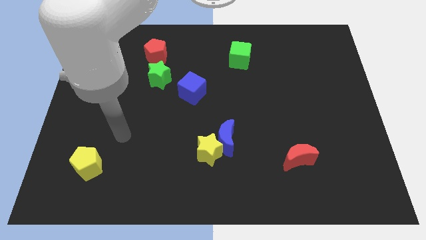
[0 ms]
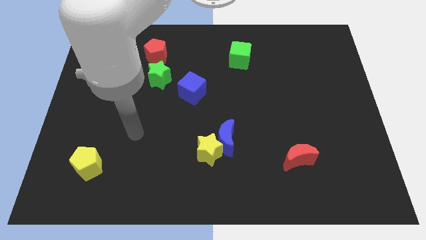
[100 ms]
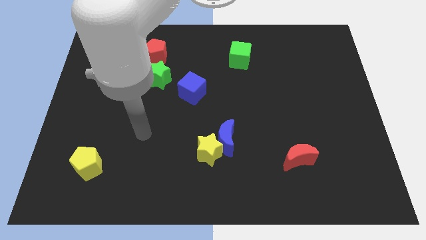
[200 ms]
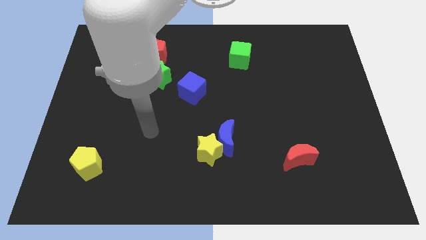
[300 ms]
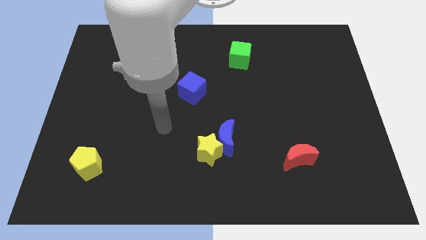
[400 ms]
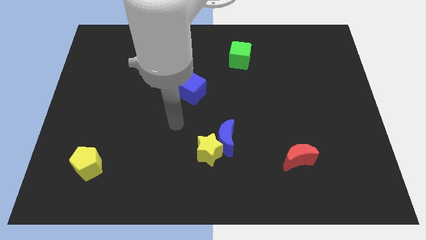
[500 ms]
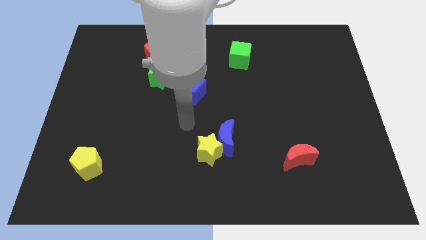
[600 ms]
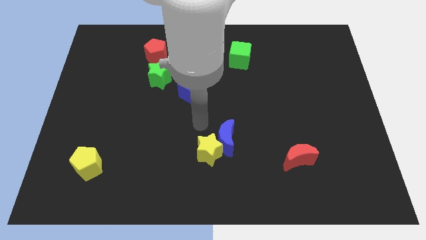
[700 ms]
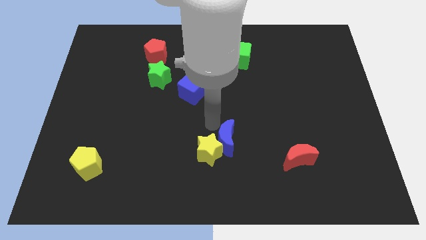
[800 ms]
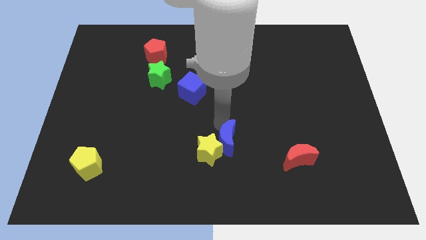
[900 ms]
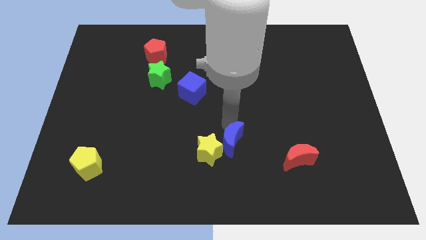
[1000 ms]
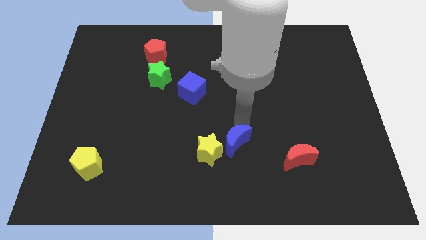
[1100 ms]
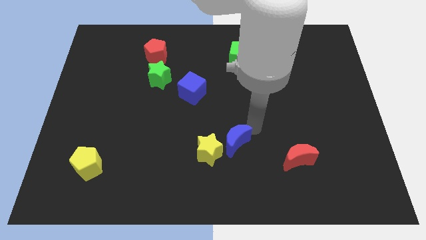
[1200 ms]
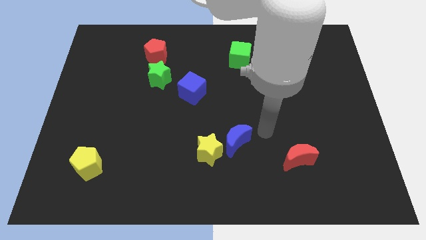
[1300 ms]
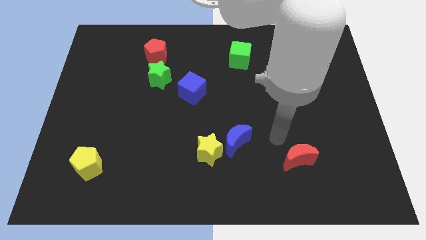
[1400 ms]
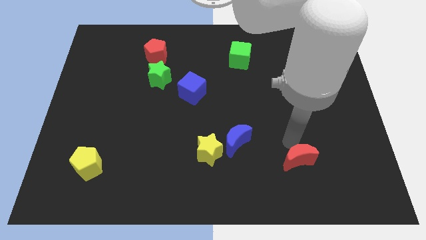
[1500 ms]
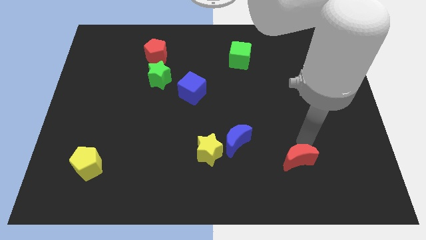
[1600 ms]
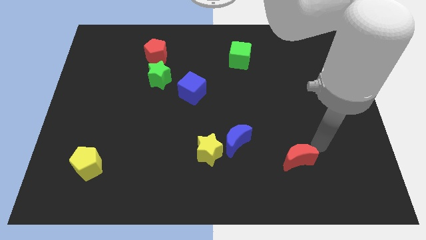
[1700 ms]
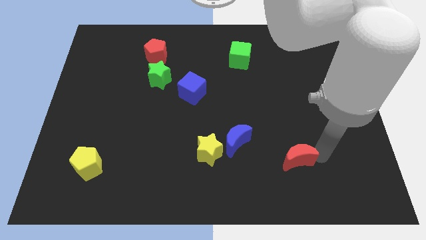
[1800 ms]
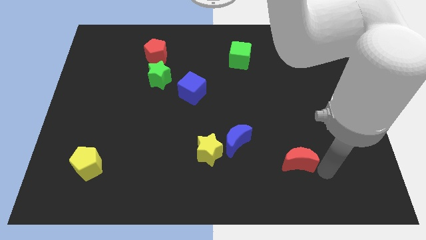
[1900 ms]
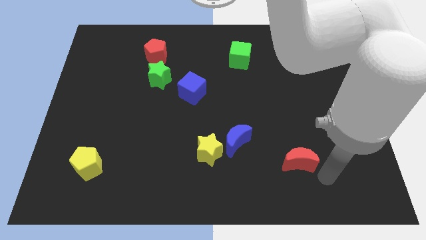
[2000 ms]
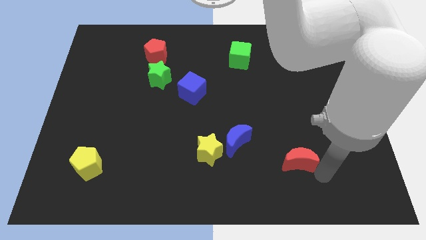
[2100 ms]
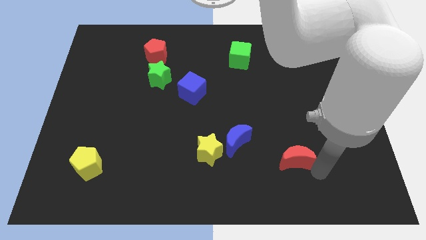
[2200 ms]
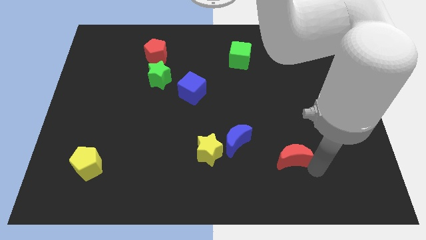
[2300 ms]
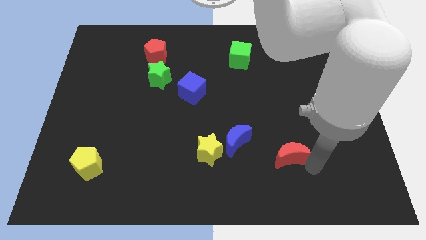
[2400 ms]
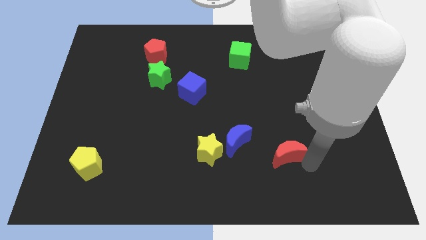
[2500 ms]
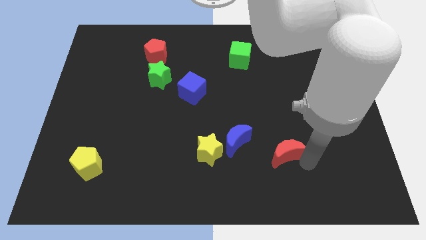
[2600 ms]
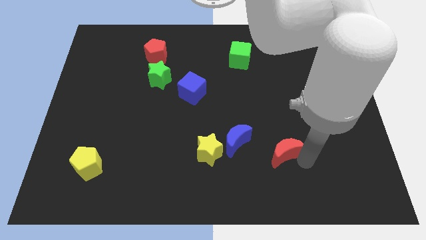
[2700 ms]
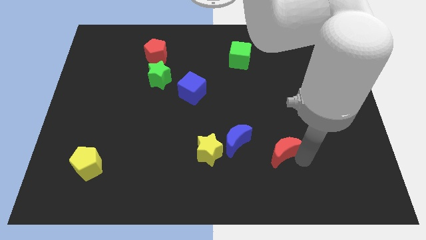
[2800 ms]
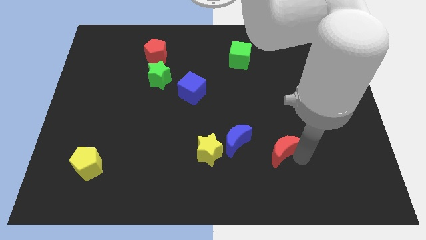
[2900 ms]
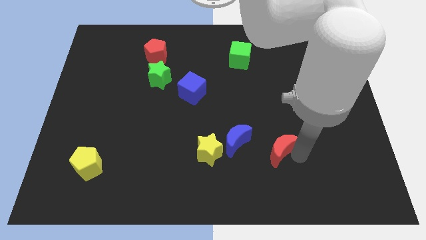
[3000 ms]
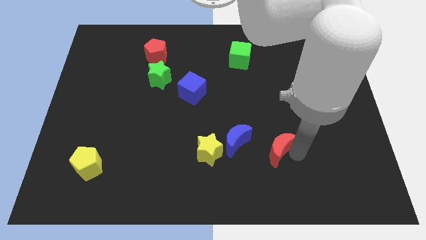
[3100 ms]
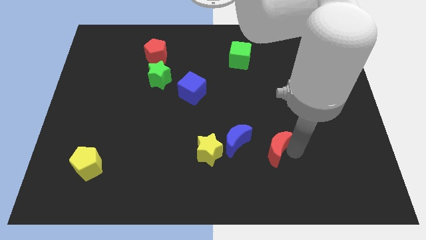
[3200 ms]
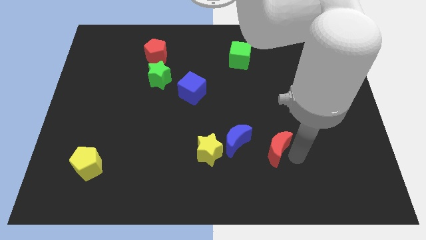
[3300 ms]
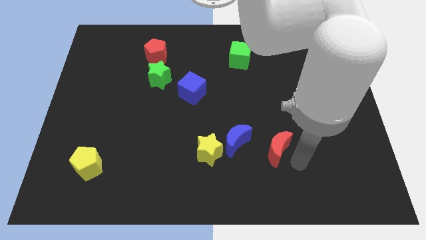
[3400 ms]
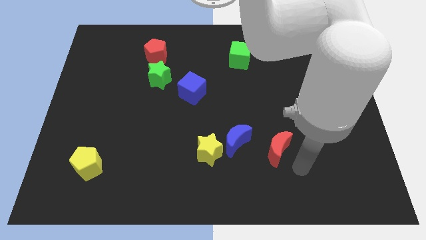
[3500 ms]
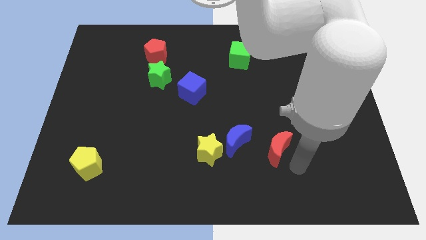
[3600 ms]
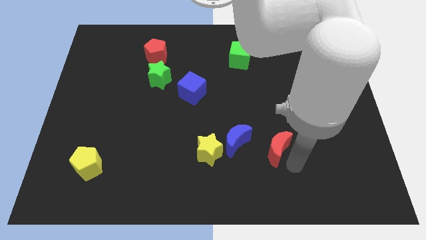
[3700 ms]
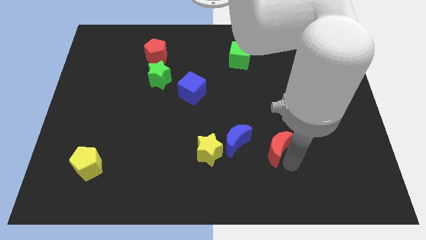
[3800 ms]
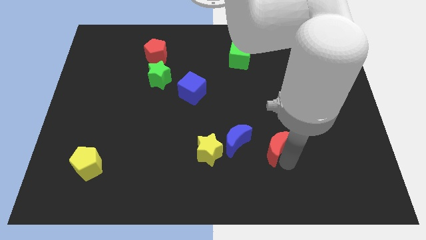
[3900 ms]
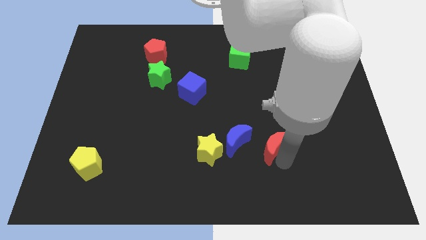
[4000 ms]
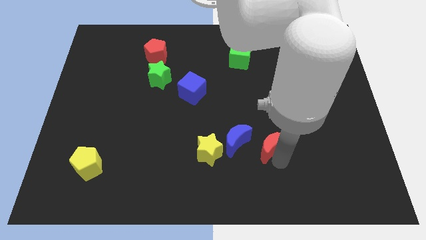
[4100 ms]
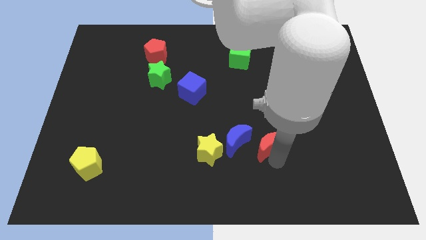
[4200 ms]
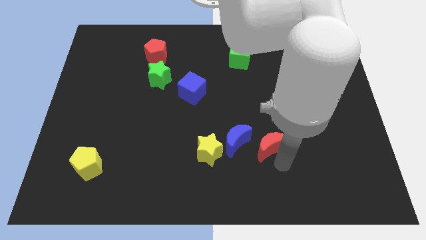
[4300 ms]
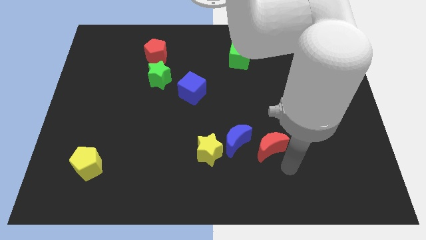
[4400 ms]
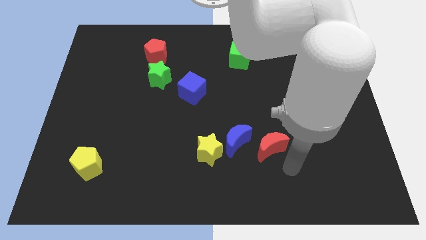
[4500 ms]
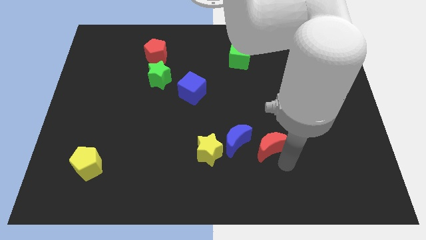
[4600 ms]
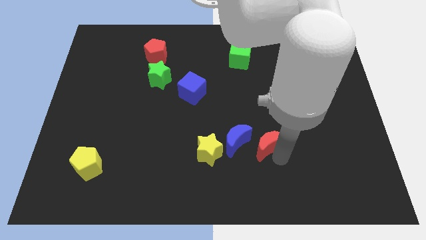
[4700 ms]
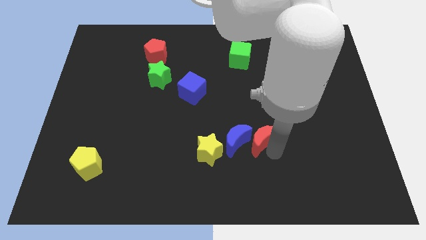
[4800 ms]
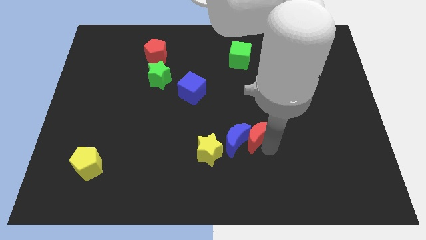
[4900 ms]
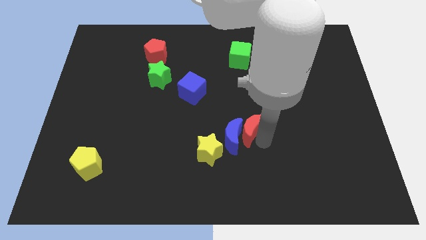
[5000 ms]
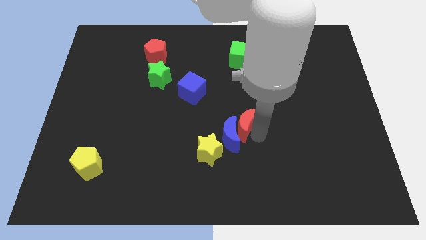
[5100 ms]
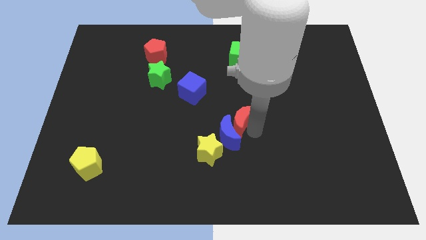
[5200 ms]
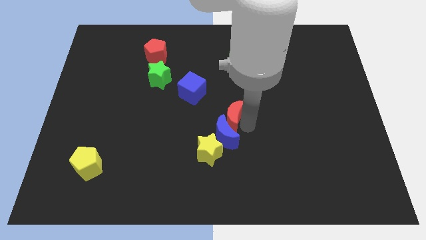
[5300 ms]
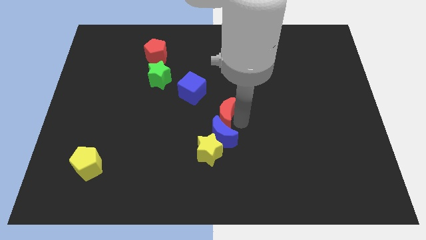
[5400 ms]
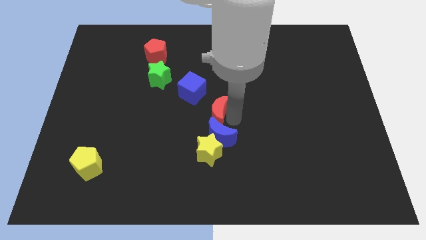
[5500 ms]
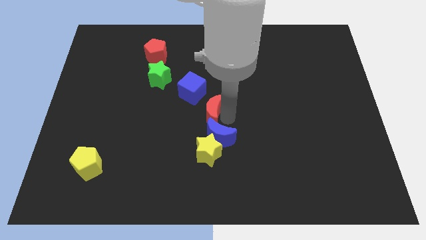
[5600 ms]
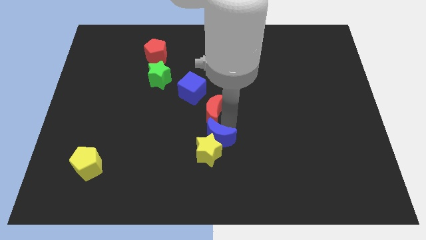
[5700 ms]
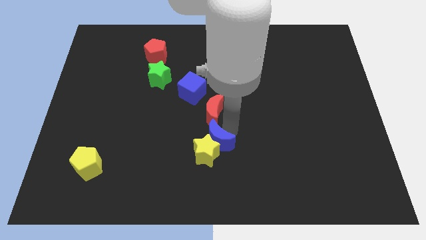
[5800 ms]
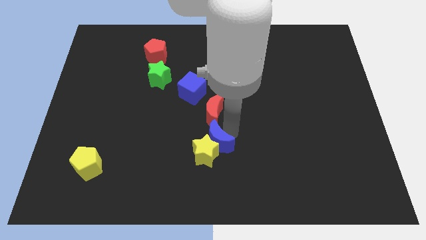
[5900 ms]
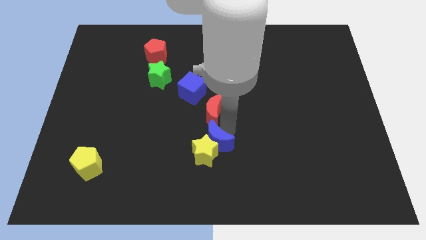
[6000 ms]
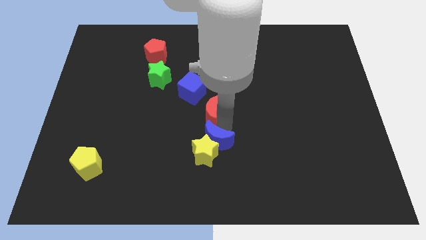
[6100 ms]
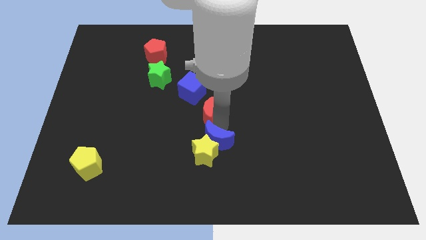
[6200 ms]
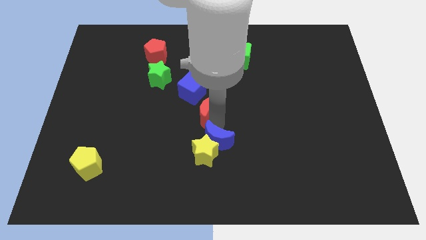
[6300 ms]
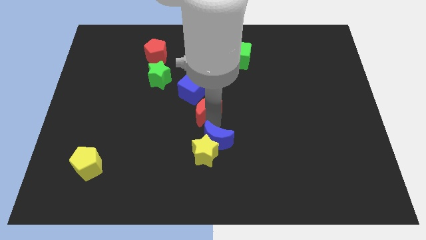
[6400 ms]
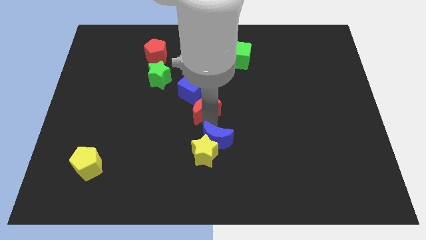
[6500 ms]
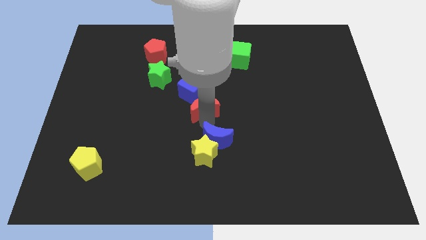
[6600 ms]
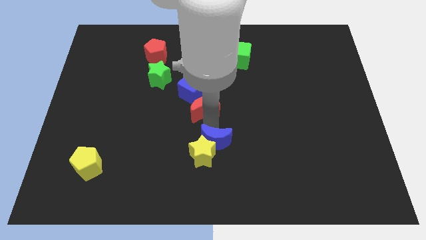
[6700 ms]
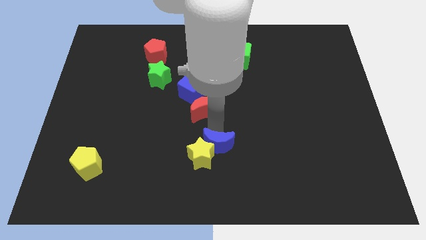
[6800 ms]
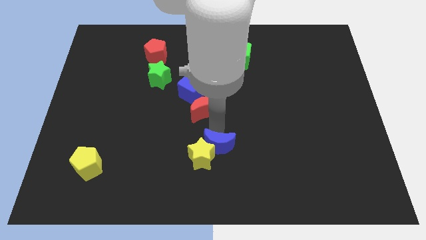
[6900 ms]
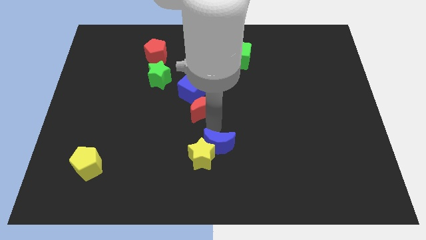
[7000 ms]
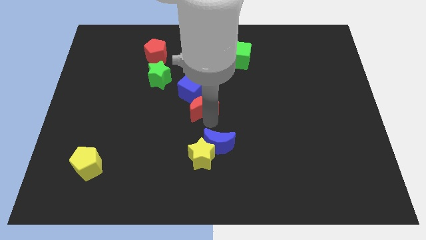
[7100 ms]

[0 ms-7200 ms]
move the red moon close to the blue cube
